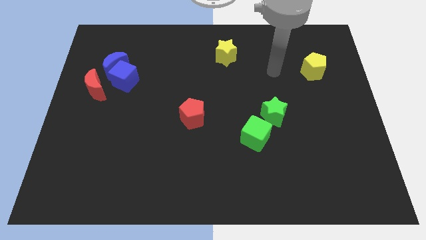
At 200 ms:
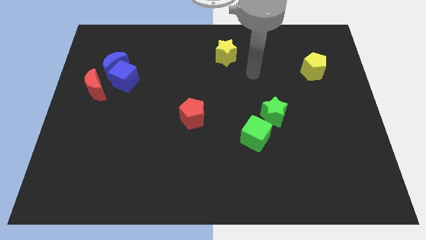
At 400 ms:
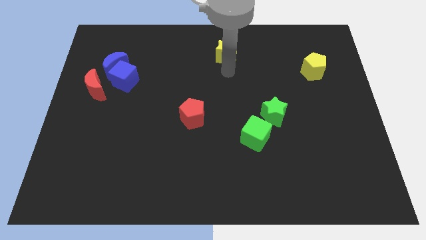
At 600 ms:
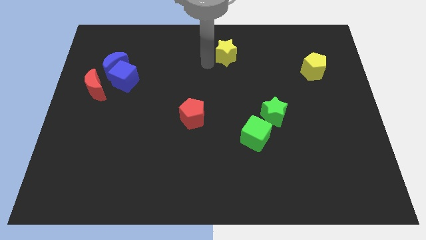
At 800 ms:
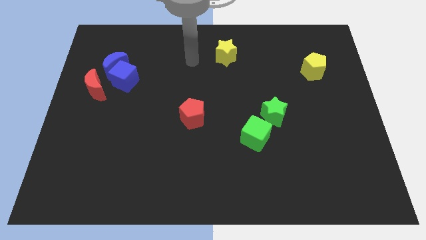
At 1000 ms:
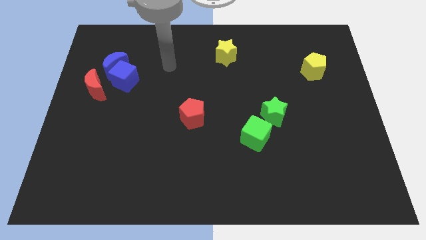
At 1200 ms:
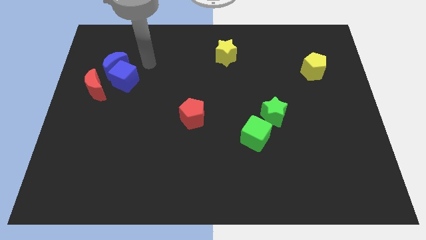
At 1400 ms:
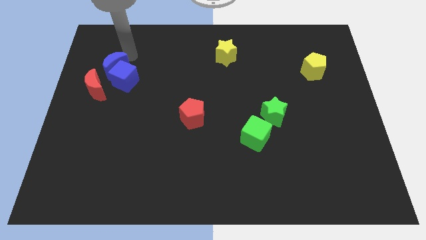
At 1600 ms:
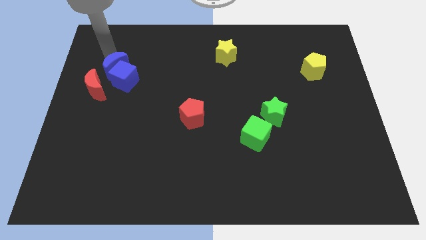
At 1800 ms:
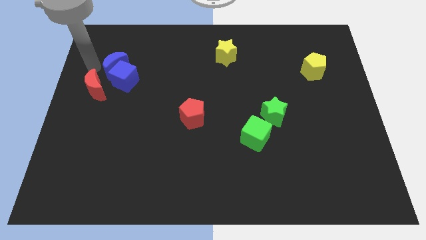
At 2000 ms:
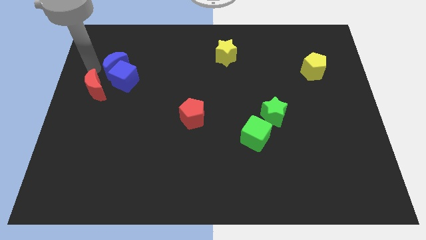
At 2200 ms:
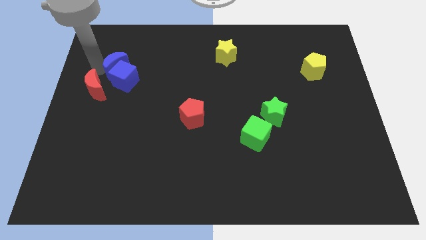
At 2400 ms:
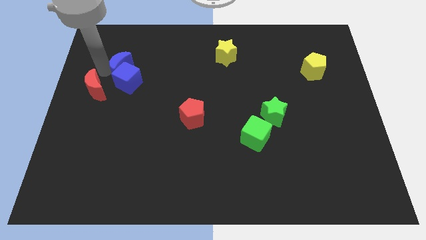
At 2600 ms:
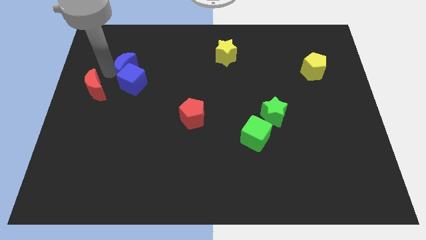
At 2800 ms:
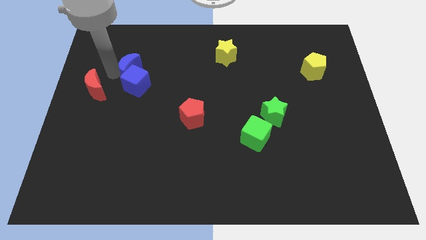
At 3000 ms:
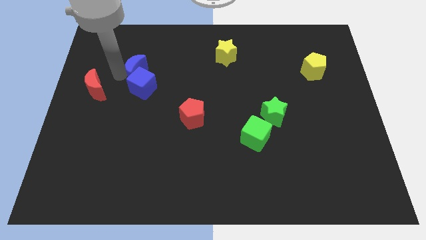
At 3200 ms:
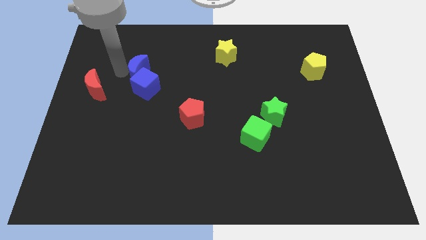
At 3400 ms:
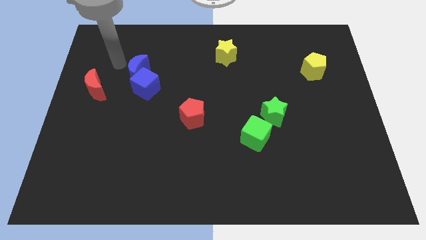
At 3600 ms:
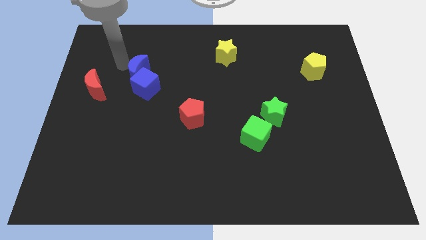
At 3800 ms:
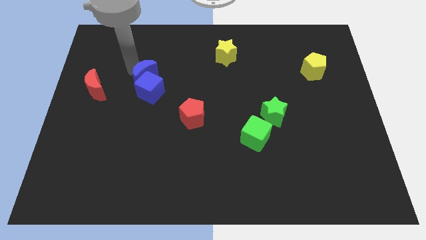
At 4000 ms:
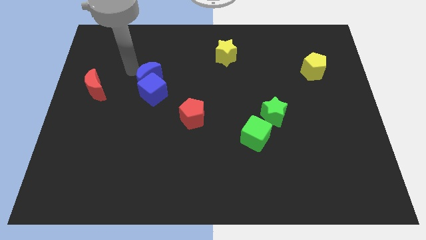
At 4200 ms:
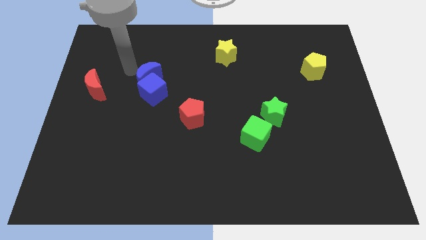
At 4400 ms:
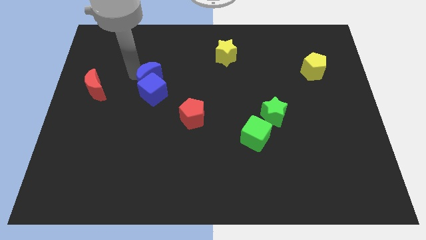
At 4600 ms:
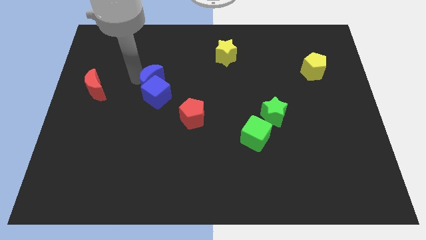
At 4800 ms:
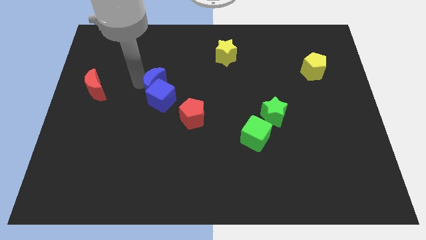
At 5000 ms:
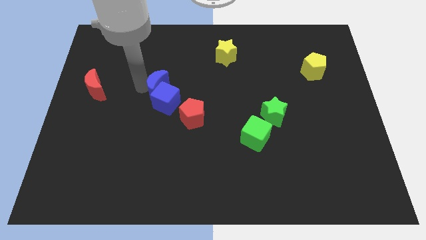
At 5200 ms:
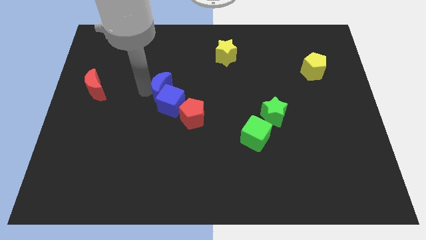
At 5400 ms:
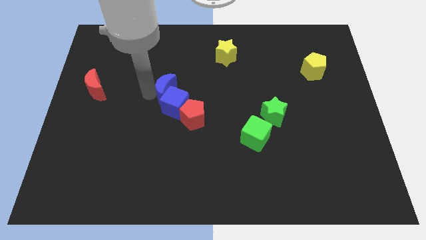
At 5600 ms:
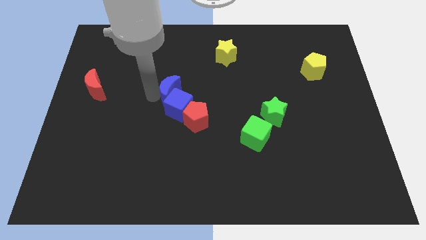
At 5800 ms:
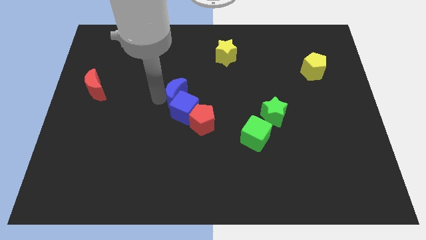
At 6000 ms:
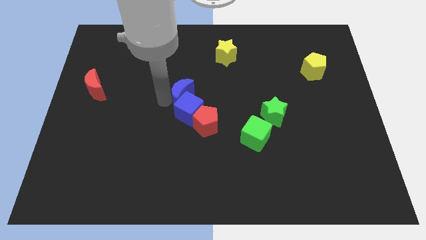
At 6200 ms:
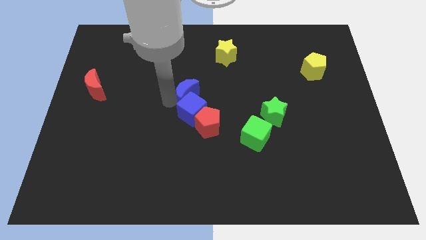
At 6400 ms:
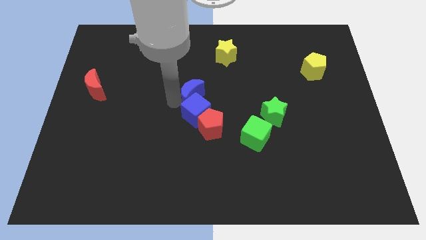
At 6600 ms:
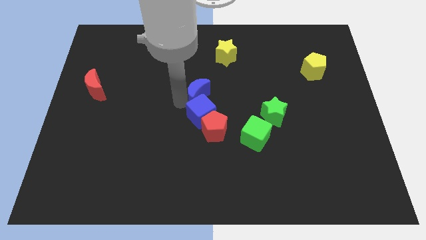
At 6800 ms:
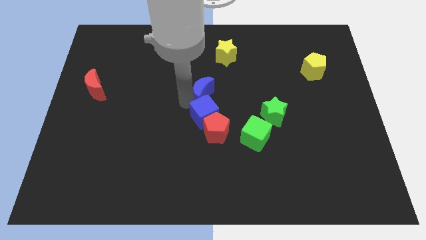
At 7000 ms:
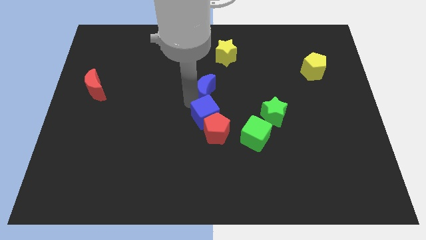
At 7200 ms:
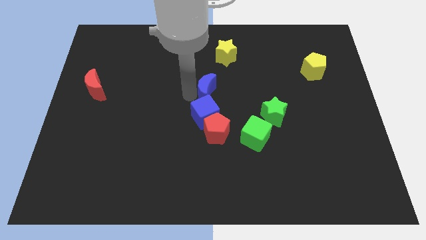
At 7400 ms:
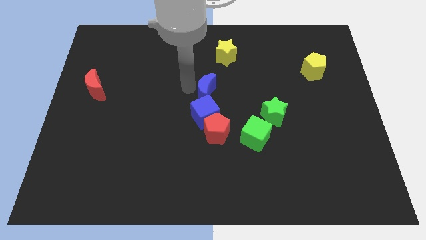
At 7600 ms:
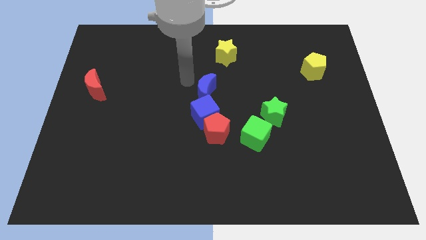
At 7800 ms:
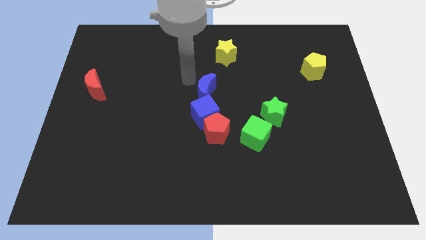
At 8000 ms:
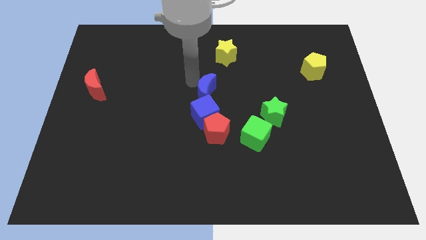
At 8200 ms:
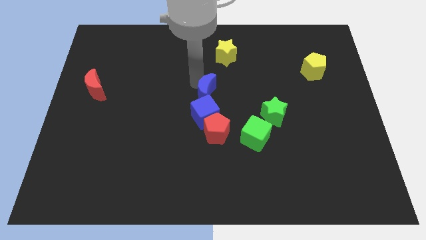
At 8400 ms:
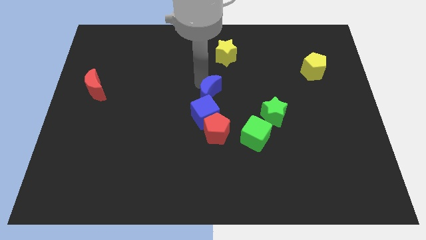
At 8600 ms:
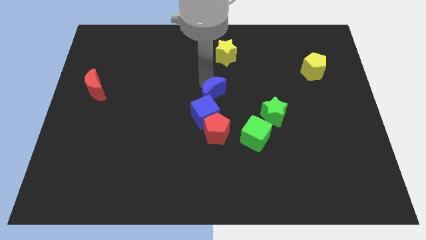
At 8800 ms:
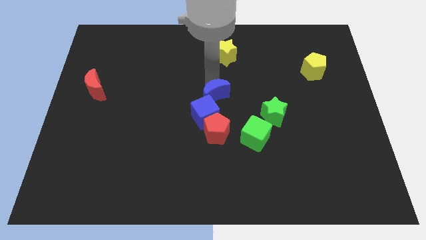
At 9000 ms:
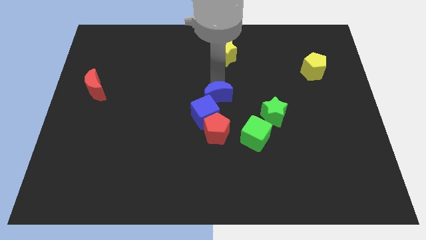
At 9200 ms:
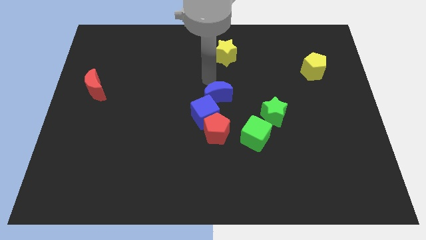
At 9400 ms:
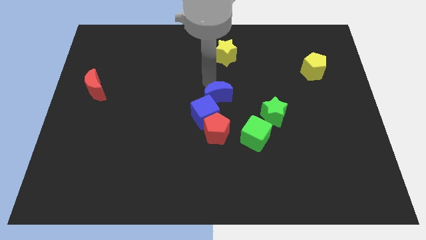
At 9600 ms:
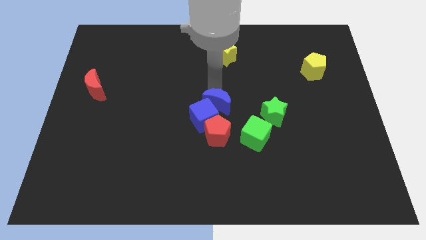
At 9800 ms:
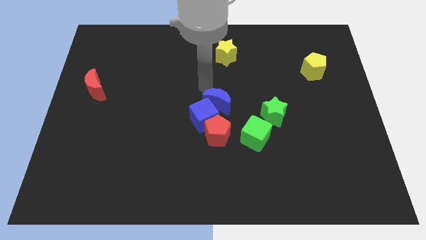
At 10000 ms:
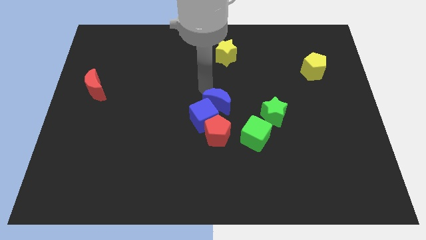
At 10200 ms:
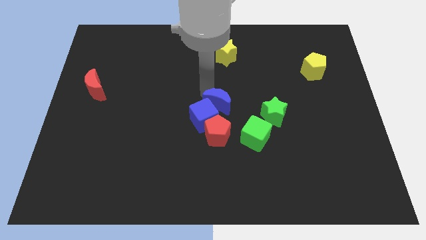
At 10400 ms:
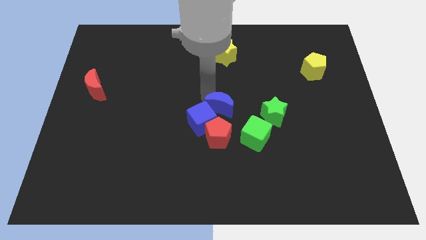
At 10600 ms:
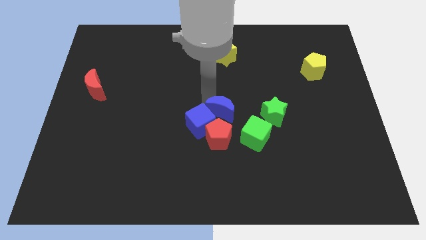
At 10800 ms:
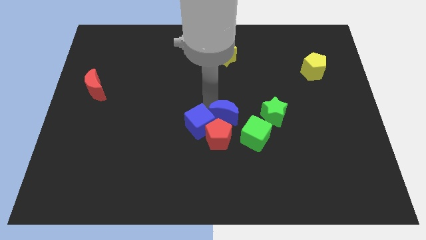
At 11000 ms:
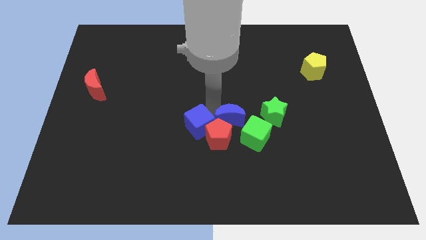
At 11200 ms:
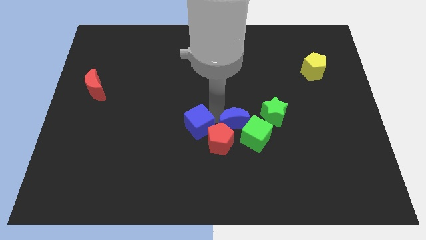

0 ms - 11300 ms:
push the blue moon next to the green cube

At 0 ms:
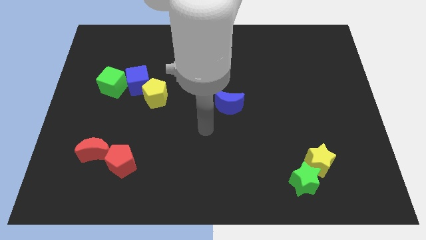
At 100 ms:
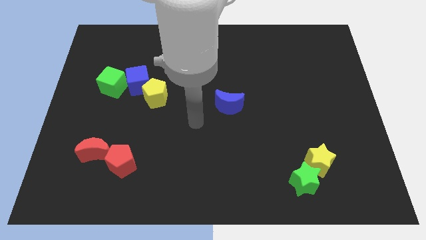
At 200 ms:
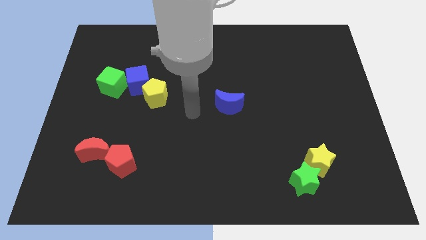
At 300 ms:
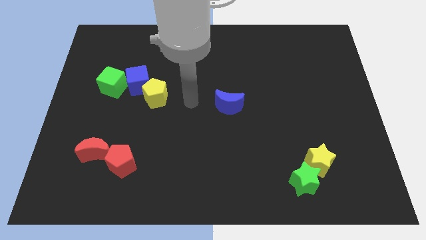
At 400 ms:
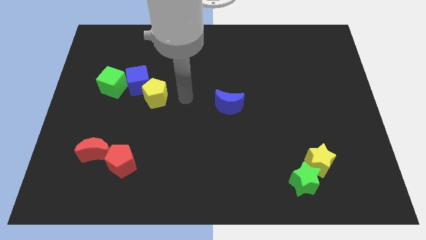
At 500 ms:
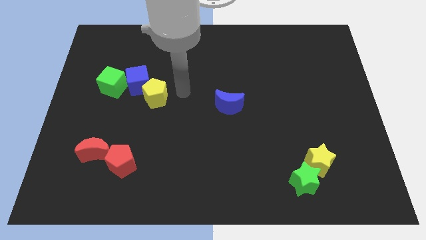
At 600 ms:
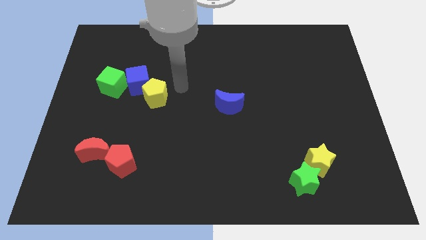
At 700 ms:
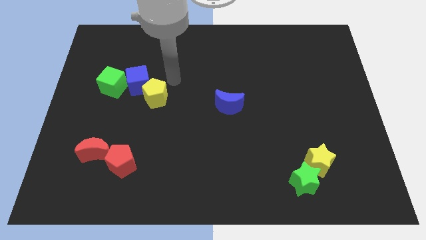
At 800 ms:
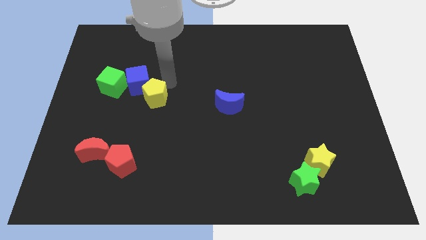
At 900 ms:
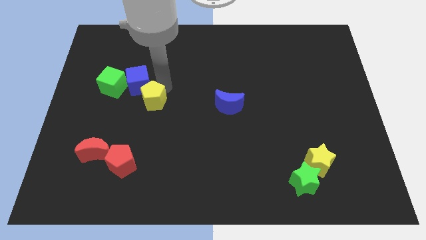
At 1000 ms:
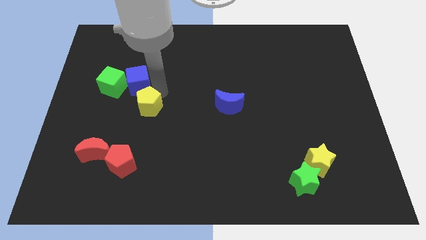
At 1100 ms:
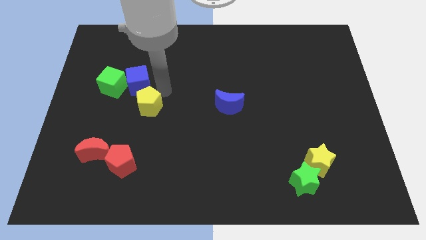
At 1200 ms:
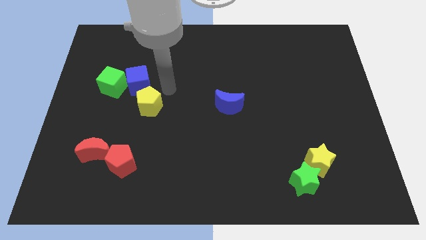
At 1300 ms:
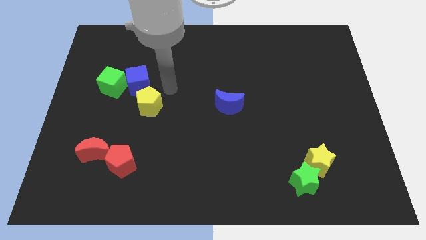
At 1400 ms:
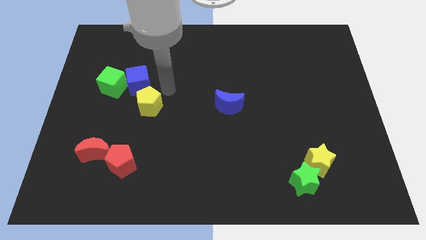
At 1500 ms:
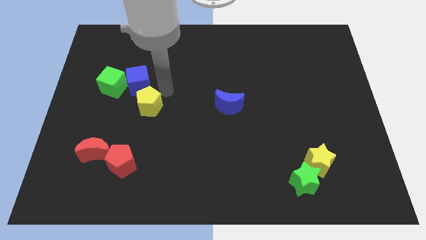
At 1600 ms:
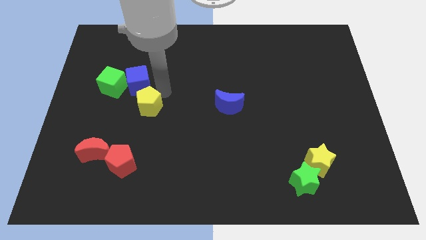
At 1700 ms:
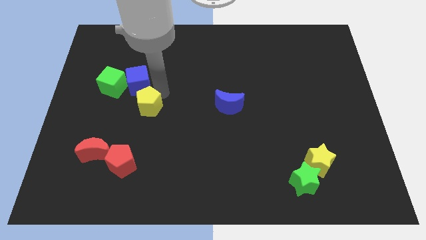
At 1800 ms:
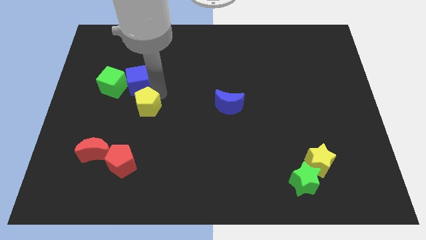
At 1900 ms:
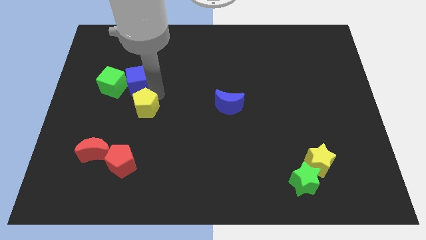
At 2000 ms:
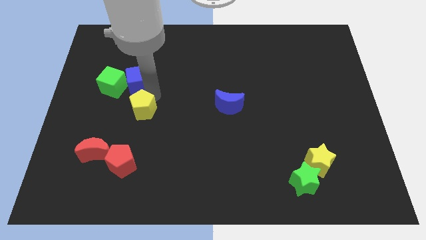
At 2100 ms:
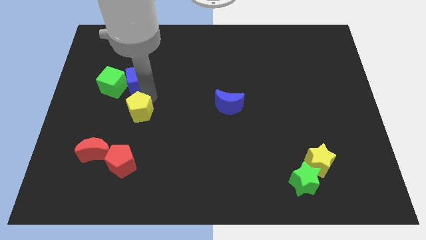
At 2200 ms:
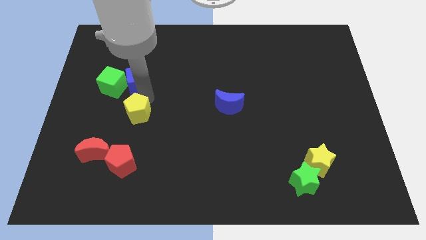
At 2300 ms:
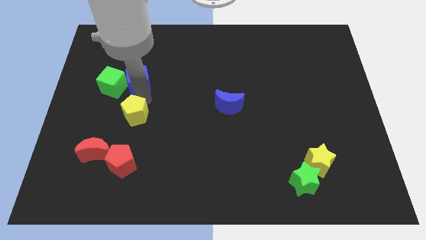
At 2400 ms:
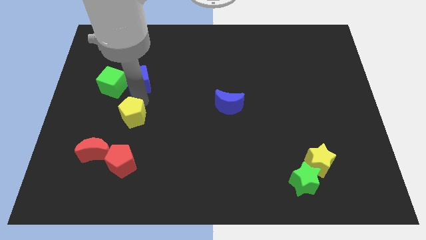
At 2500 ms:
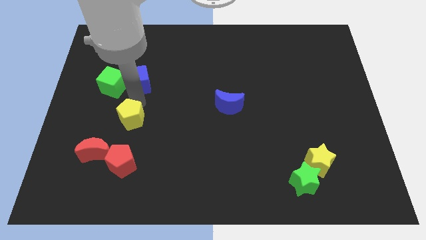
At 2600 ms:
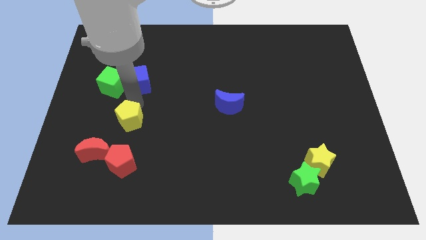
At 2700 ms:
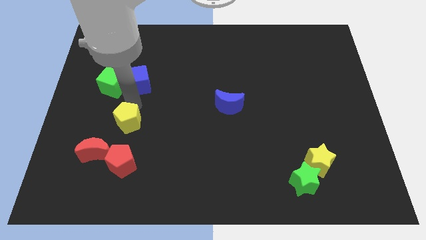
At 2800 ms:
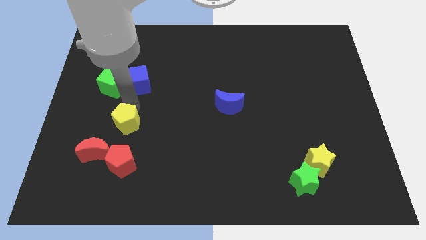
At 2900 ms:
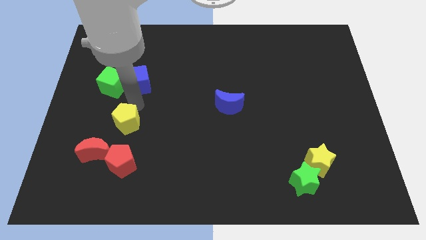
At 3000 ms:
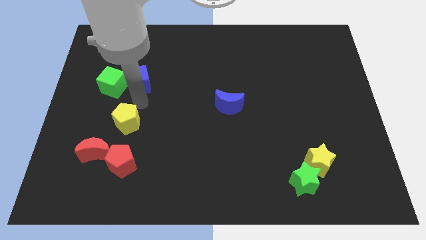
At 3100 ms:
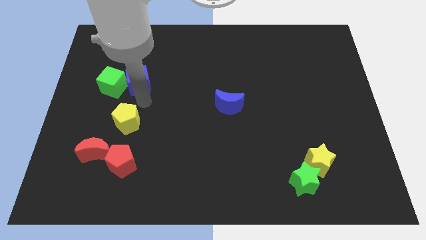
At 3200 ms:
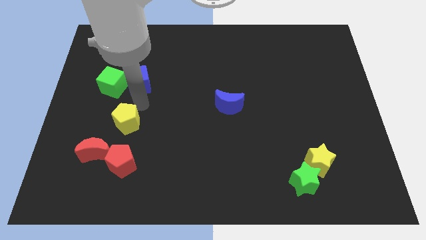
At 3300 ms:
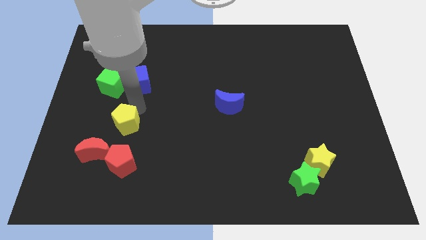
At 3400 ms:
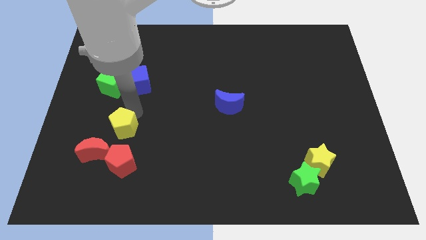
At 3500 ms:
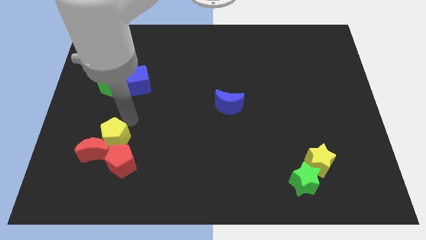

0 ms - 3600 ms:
move the yellow pentagon next to the red moon
